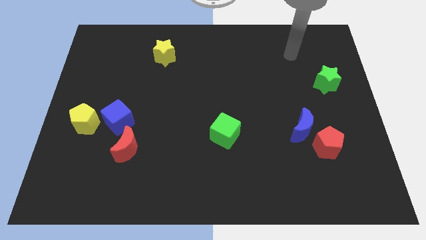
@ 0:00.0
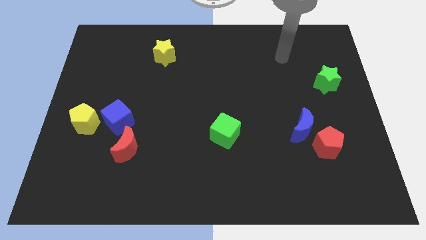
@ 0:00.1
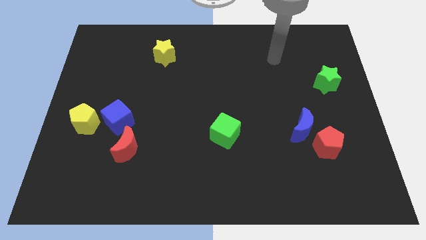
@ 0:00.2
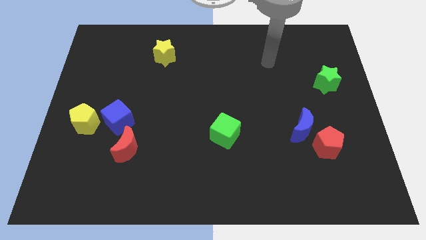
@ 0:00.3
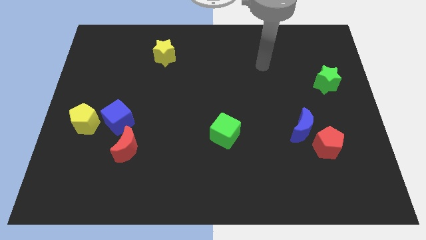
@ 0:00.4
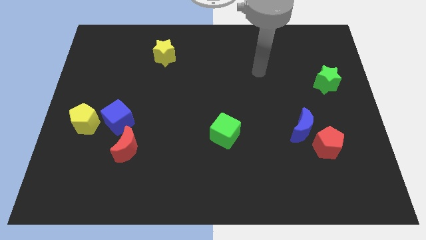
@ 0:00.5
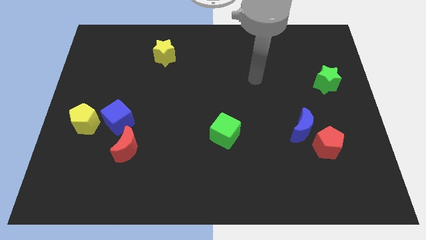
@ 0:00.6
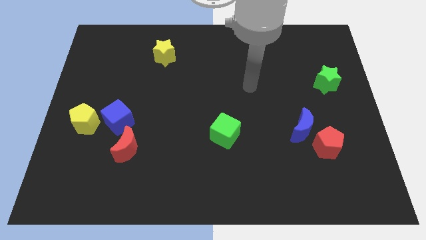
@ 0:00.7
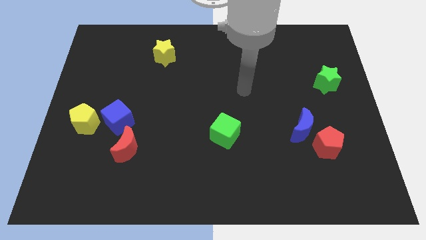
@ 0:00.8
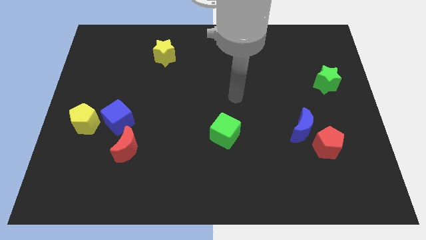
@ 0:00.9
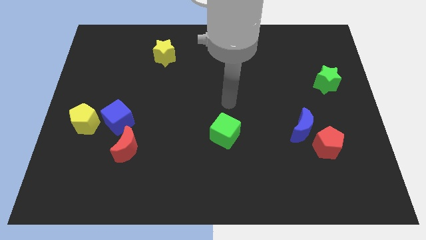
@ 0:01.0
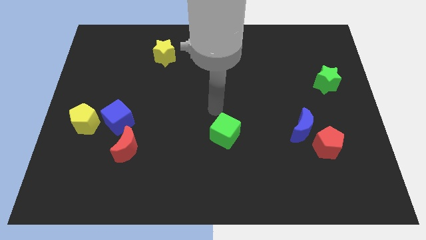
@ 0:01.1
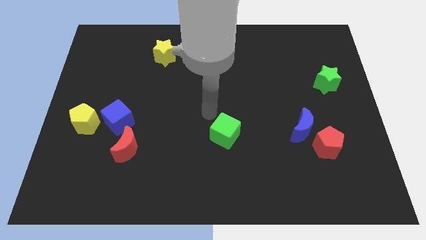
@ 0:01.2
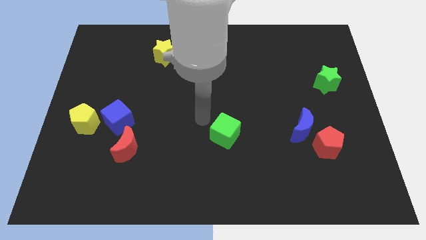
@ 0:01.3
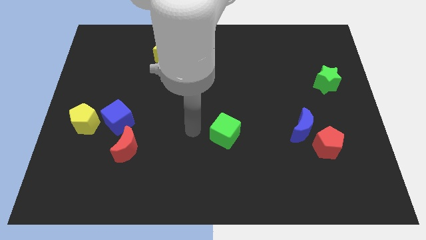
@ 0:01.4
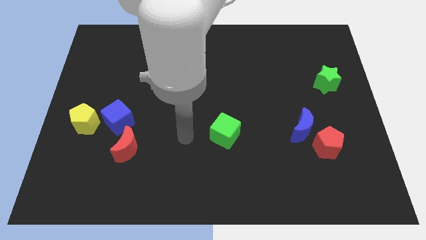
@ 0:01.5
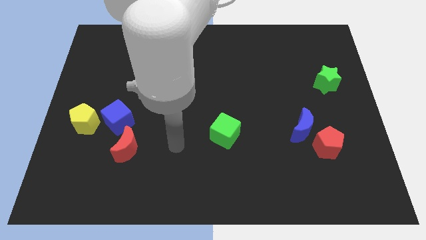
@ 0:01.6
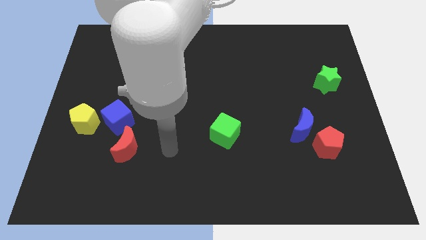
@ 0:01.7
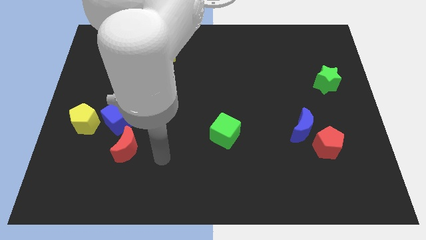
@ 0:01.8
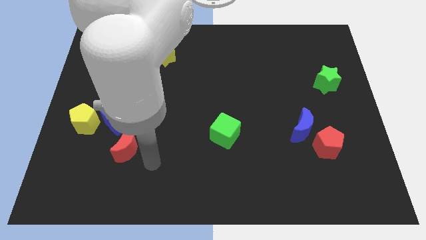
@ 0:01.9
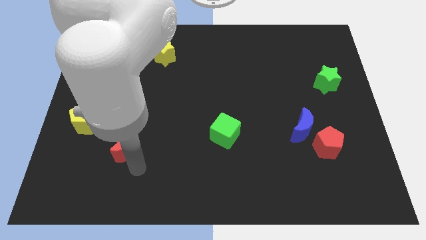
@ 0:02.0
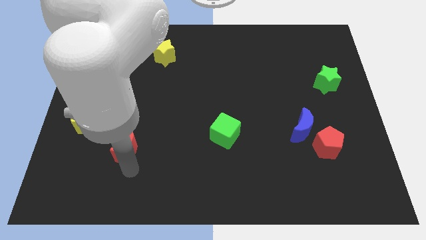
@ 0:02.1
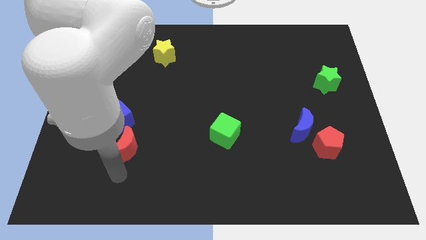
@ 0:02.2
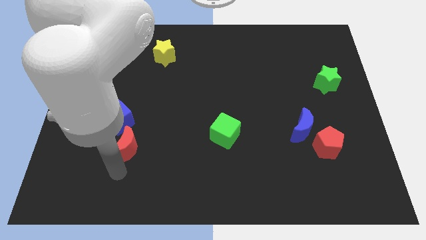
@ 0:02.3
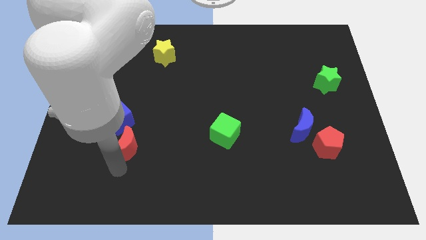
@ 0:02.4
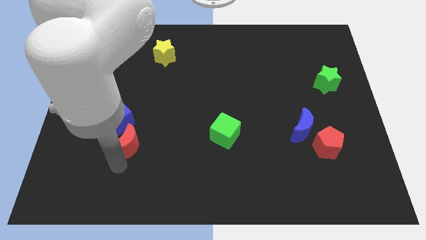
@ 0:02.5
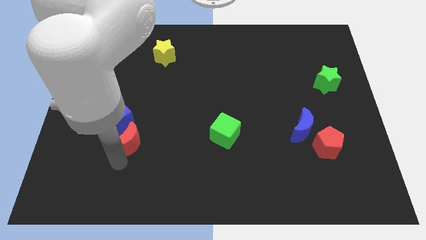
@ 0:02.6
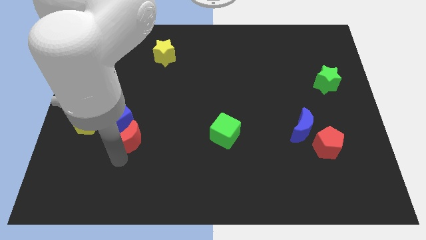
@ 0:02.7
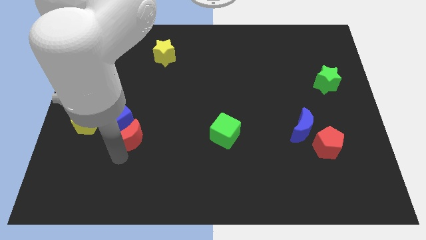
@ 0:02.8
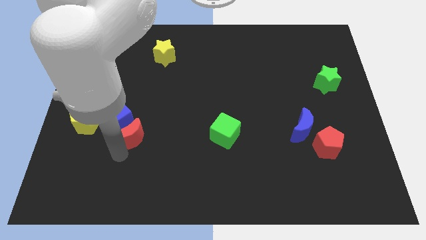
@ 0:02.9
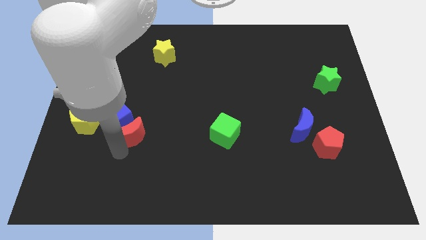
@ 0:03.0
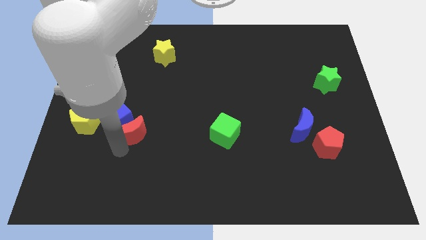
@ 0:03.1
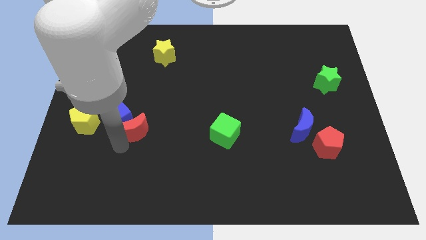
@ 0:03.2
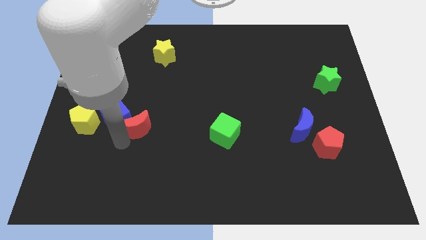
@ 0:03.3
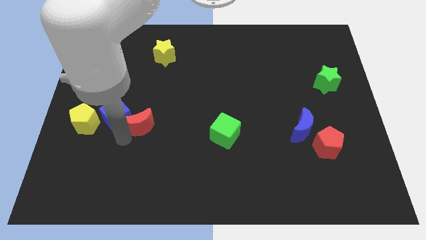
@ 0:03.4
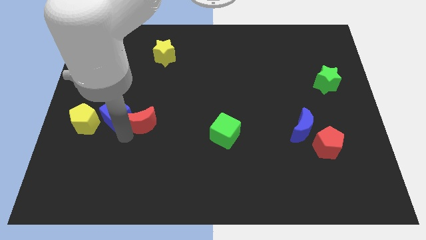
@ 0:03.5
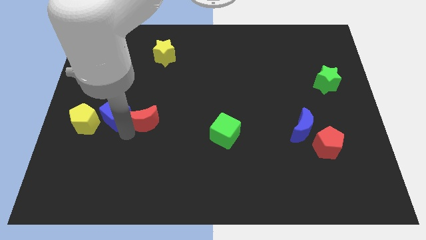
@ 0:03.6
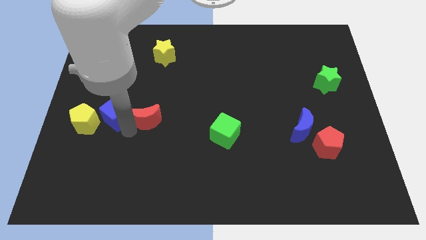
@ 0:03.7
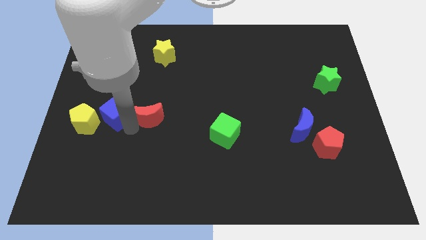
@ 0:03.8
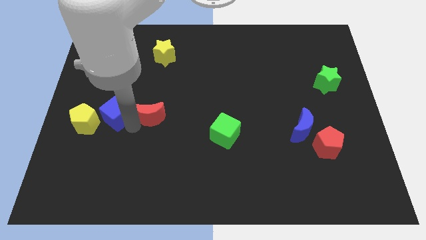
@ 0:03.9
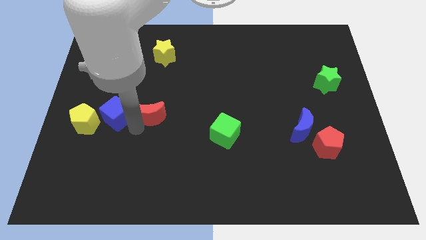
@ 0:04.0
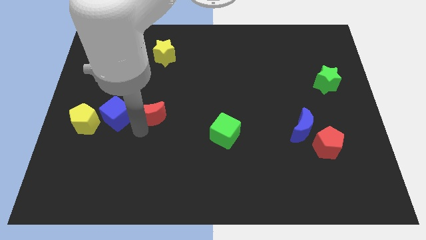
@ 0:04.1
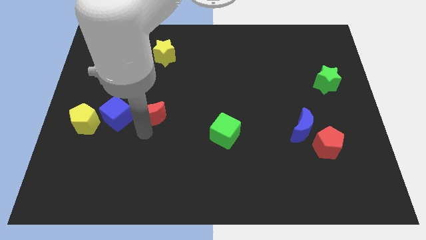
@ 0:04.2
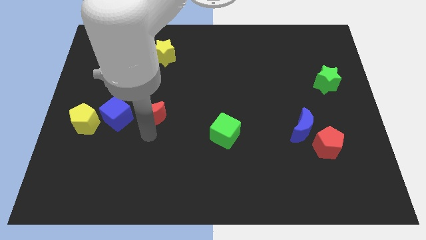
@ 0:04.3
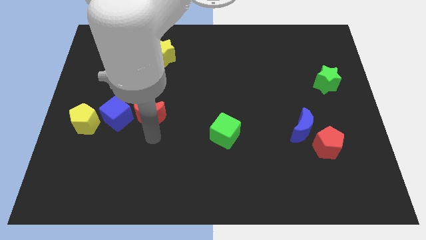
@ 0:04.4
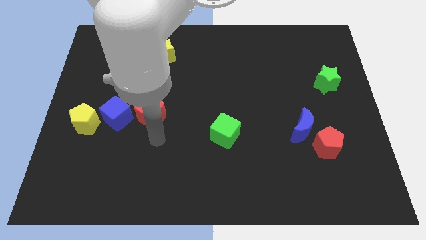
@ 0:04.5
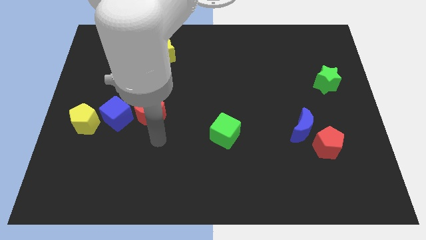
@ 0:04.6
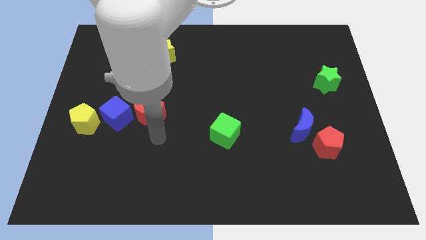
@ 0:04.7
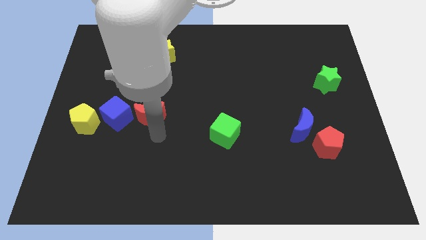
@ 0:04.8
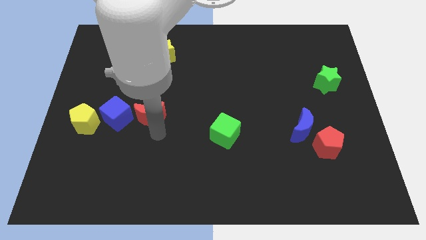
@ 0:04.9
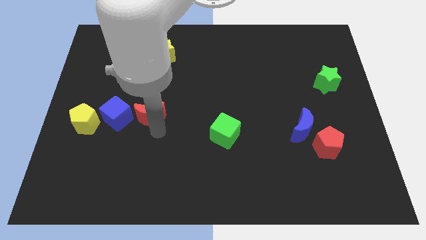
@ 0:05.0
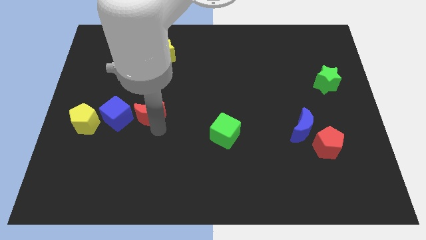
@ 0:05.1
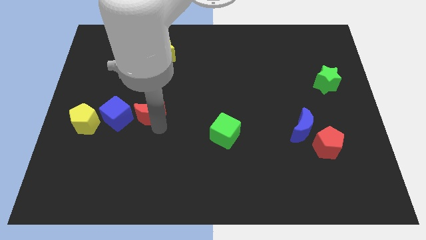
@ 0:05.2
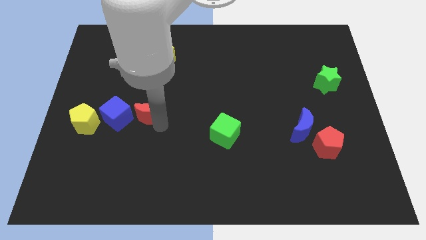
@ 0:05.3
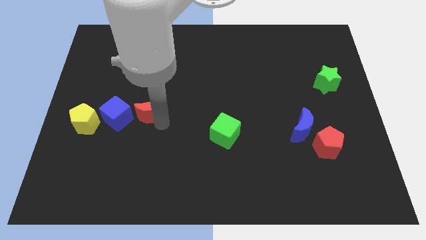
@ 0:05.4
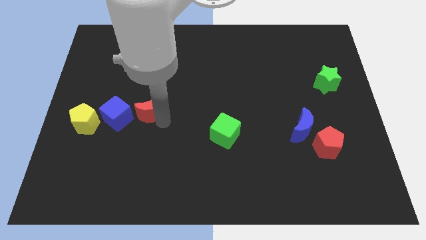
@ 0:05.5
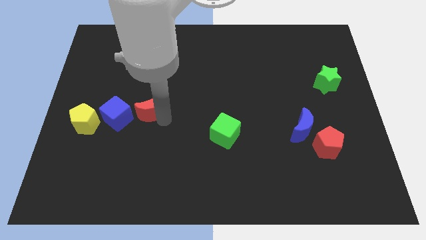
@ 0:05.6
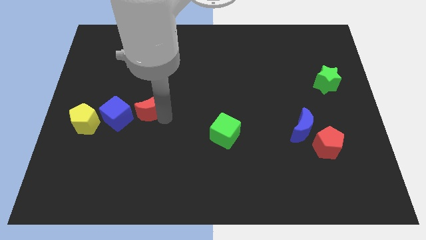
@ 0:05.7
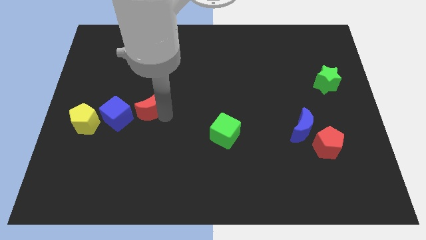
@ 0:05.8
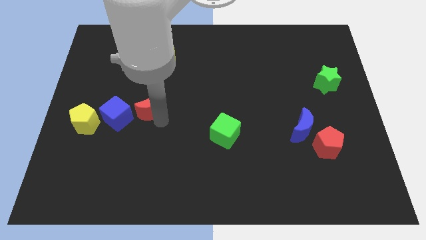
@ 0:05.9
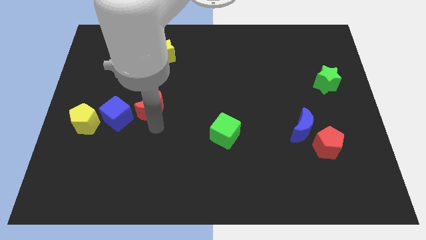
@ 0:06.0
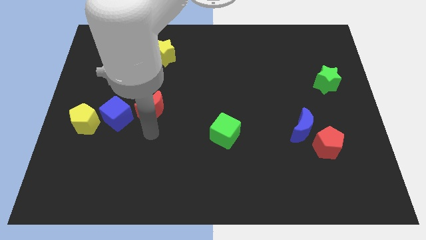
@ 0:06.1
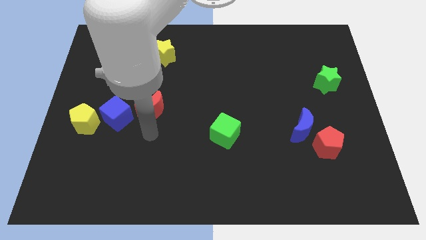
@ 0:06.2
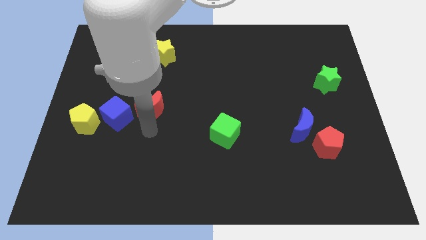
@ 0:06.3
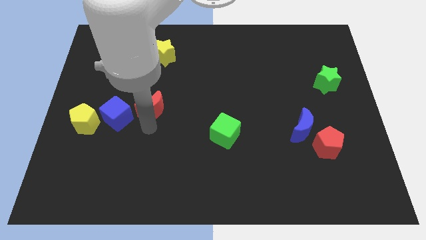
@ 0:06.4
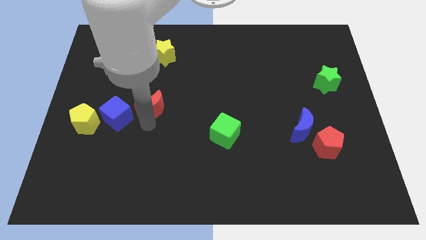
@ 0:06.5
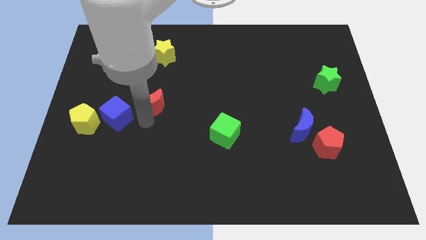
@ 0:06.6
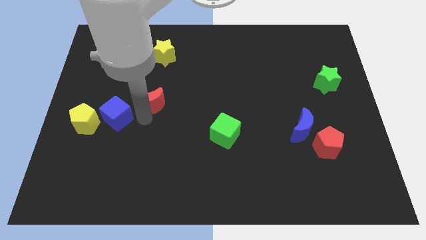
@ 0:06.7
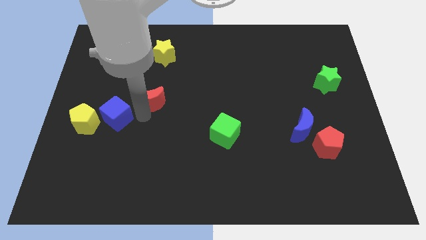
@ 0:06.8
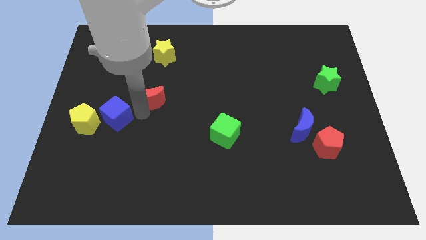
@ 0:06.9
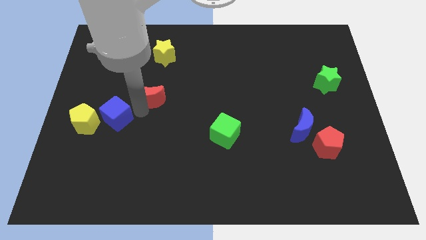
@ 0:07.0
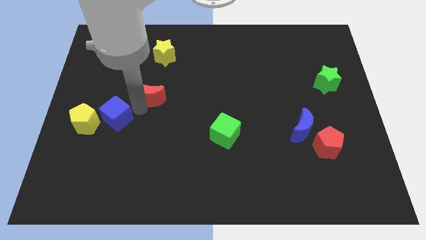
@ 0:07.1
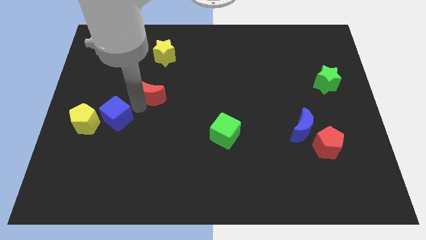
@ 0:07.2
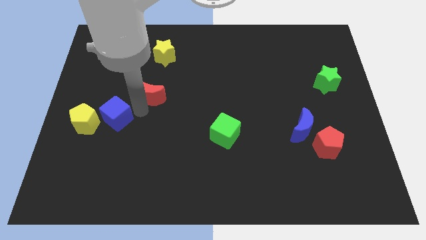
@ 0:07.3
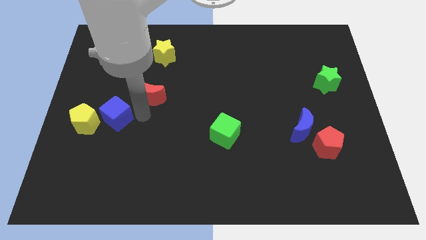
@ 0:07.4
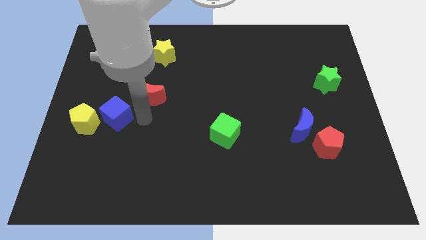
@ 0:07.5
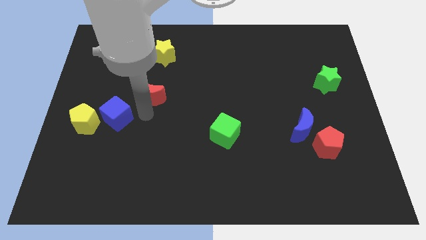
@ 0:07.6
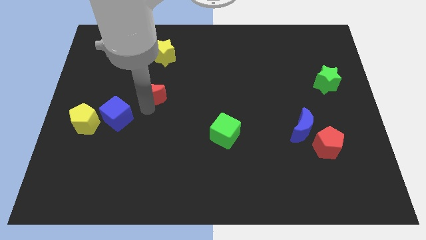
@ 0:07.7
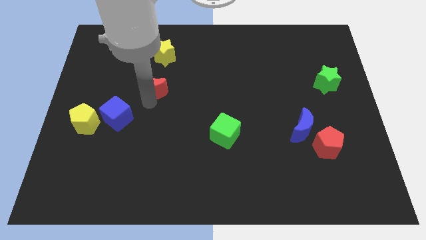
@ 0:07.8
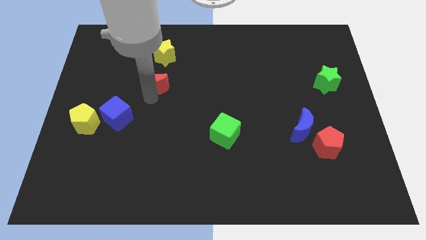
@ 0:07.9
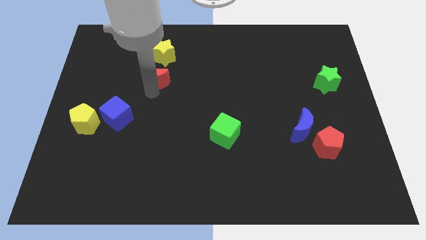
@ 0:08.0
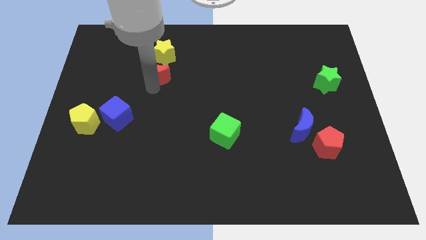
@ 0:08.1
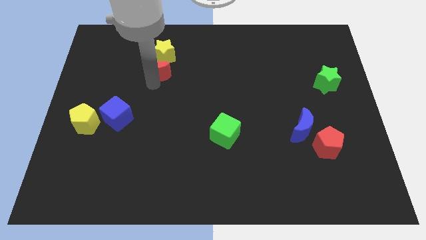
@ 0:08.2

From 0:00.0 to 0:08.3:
push the red moon next to the yellow star
